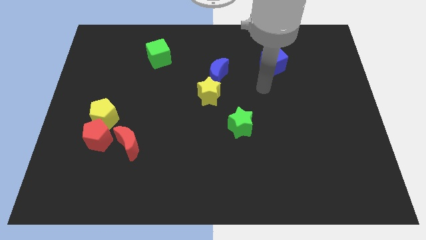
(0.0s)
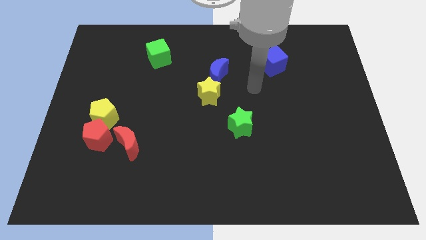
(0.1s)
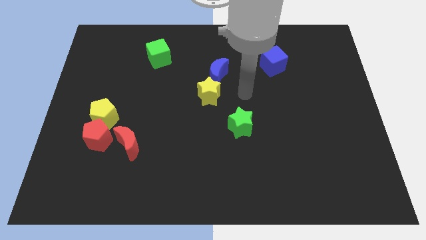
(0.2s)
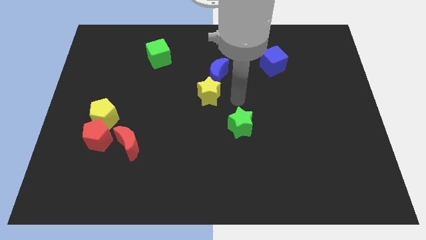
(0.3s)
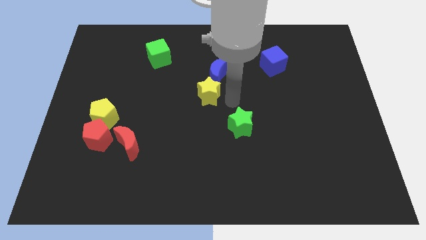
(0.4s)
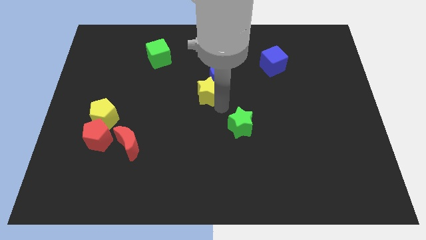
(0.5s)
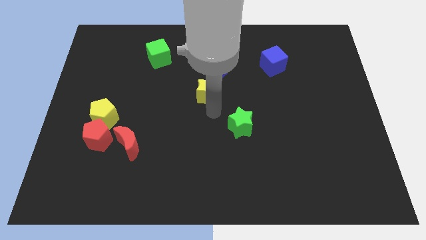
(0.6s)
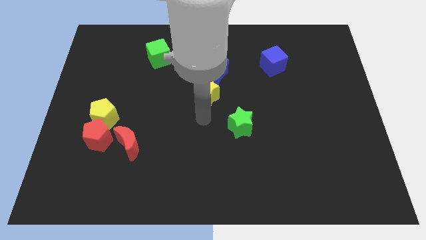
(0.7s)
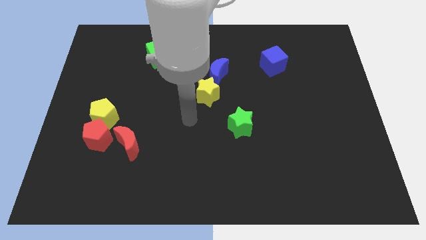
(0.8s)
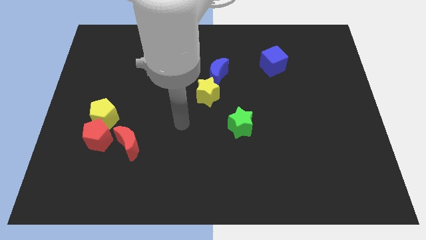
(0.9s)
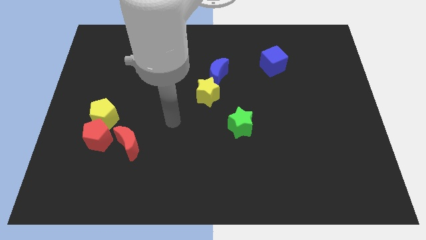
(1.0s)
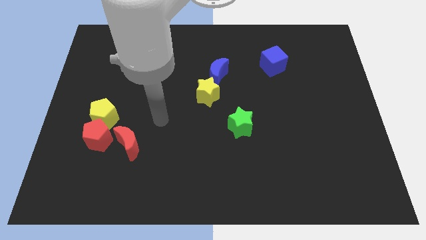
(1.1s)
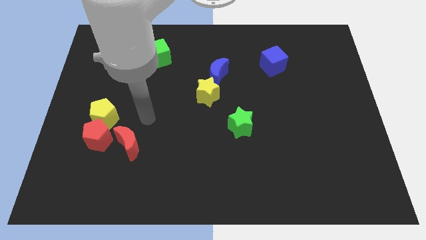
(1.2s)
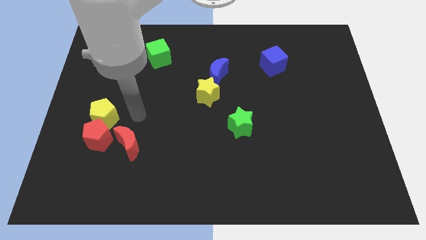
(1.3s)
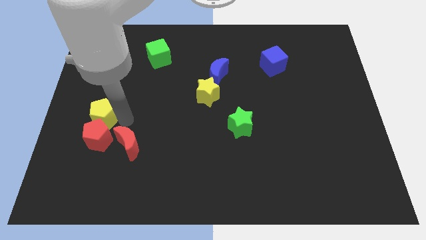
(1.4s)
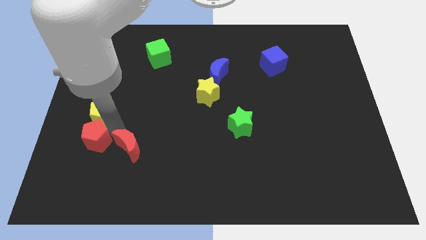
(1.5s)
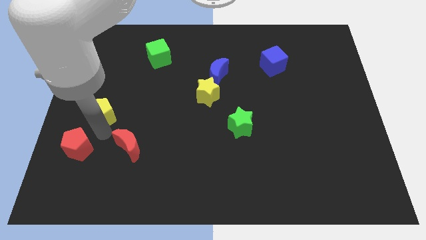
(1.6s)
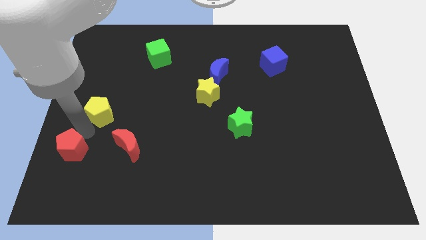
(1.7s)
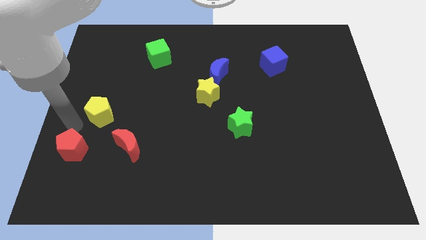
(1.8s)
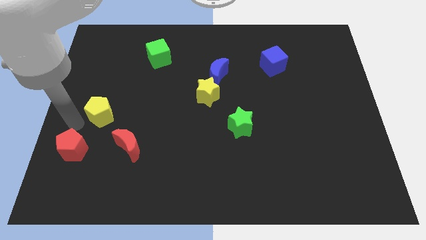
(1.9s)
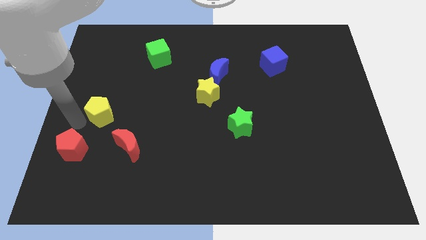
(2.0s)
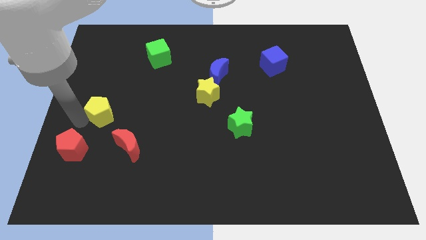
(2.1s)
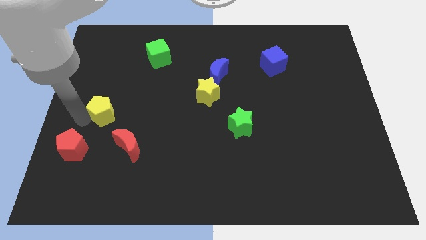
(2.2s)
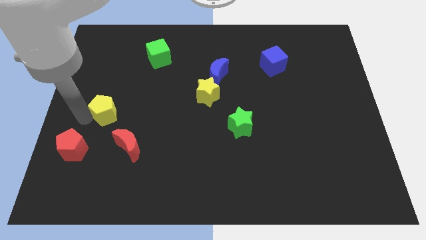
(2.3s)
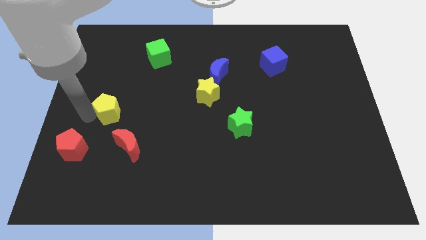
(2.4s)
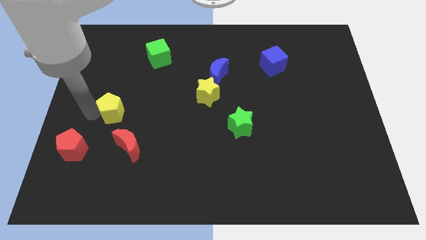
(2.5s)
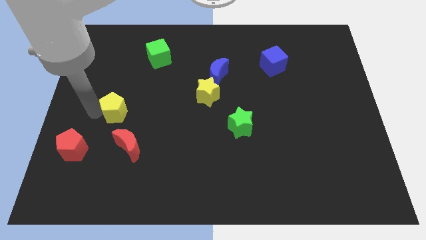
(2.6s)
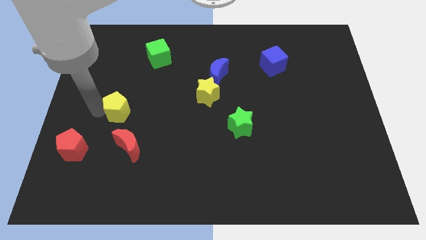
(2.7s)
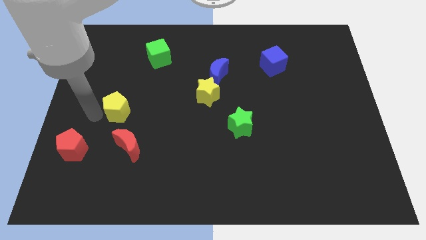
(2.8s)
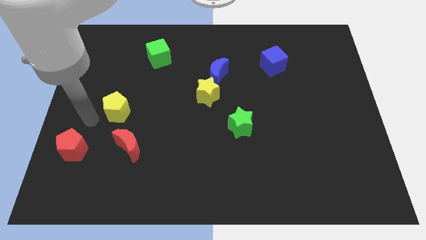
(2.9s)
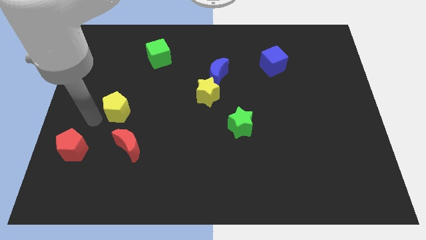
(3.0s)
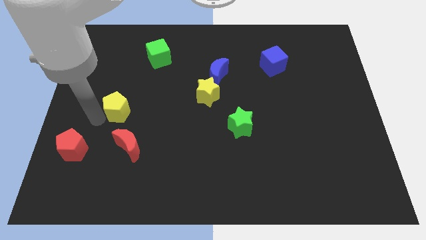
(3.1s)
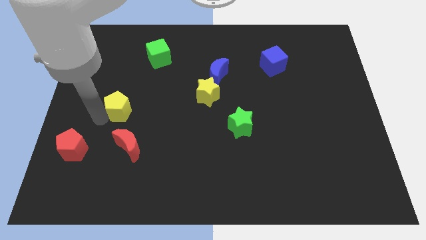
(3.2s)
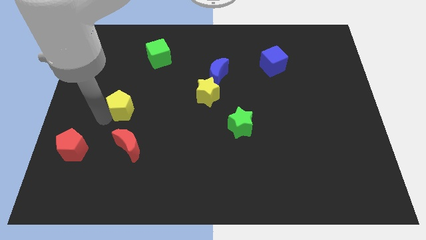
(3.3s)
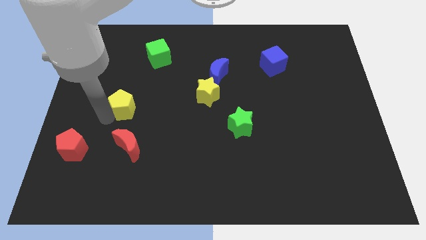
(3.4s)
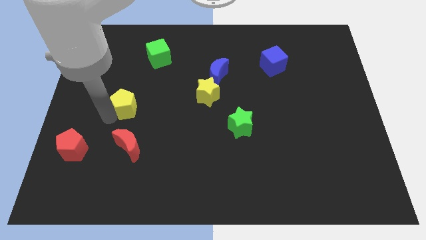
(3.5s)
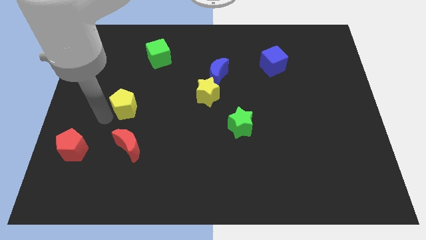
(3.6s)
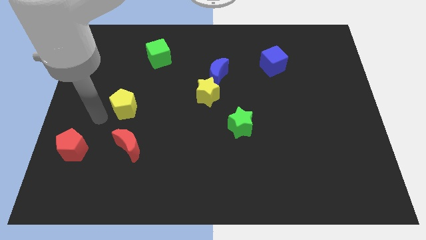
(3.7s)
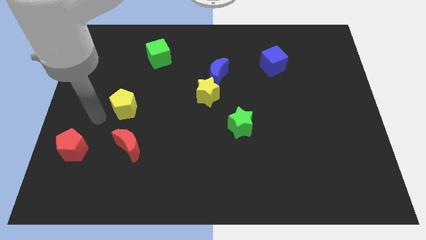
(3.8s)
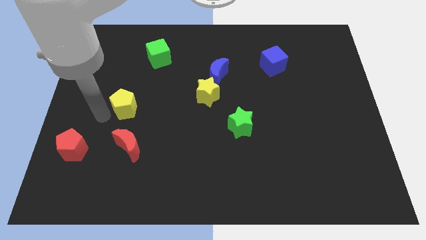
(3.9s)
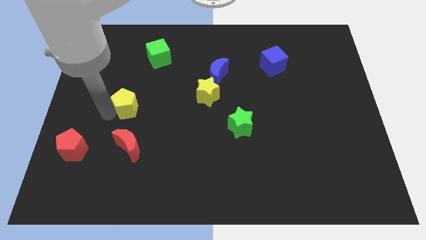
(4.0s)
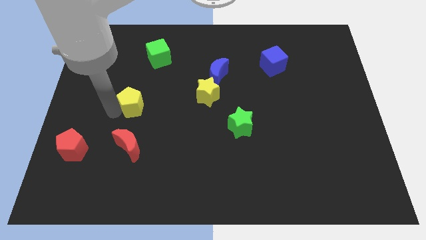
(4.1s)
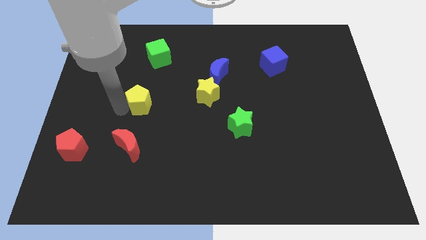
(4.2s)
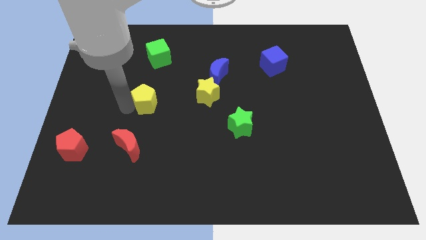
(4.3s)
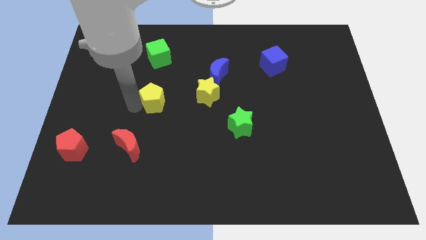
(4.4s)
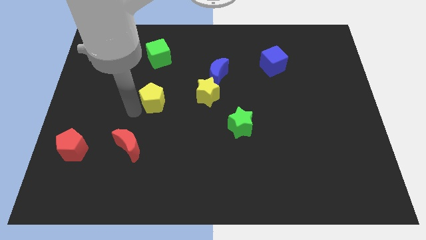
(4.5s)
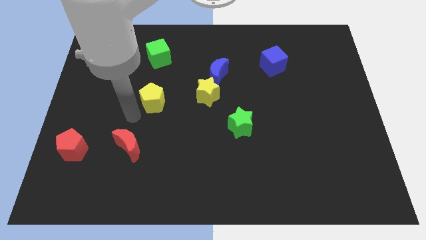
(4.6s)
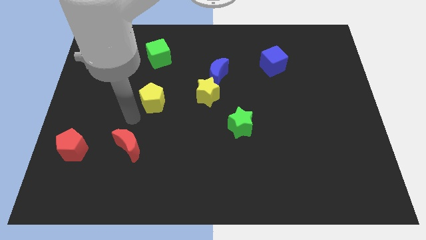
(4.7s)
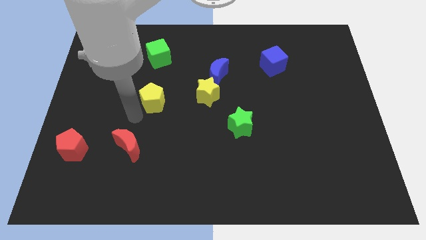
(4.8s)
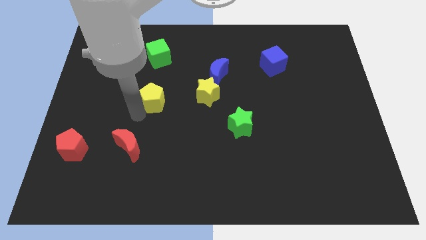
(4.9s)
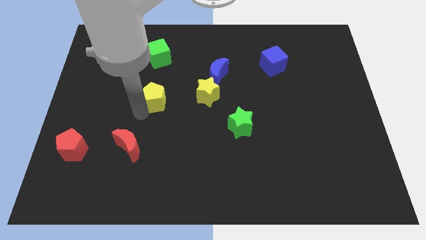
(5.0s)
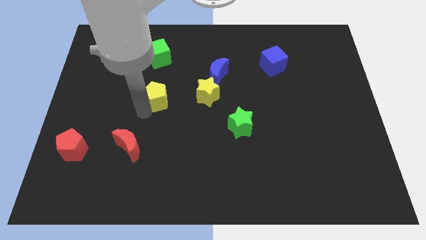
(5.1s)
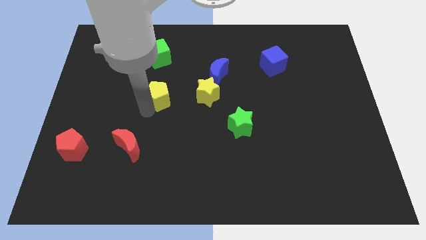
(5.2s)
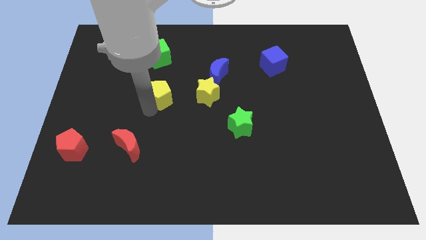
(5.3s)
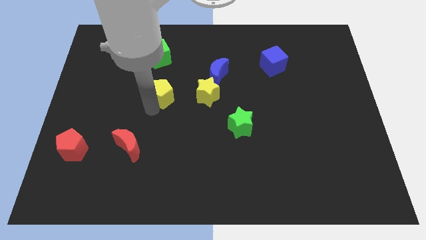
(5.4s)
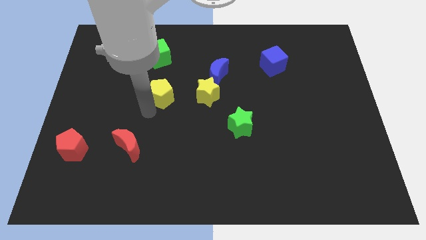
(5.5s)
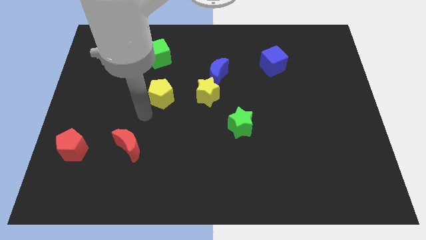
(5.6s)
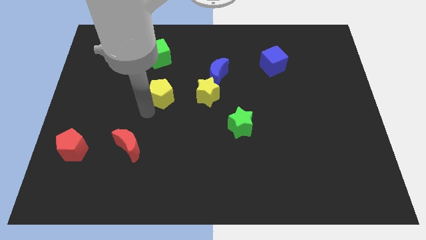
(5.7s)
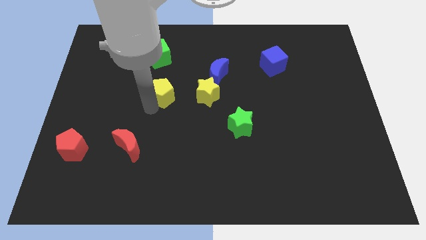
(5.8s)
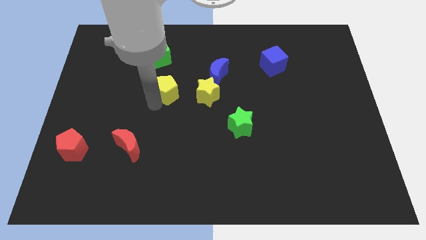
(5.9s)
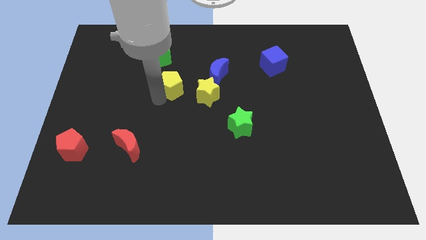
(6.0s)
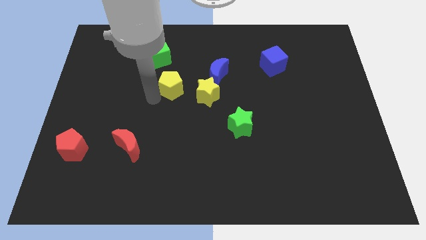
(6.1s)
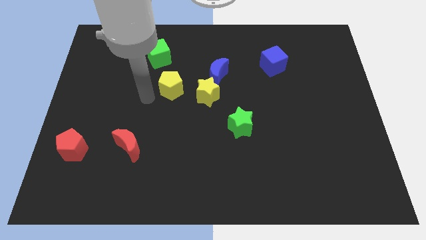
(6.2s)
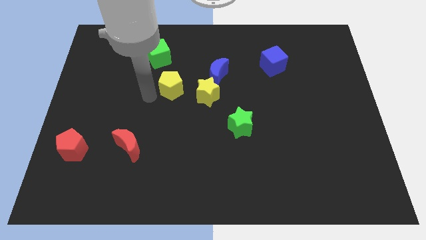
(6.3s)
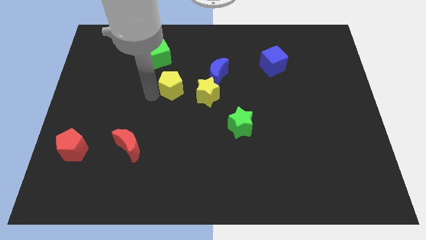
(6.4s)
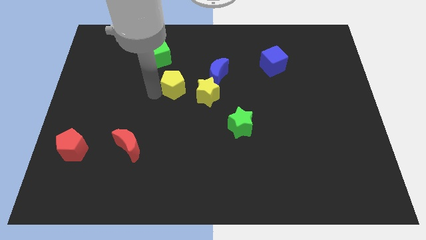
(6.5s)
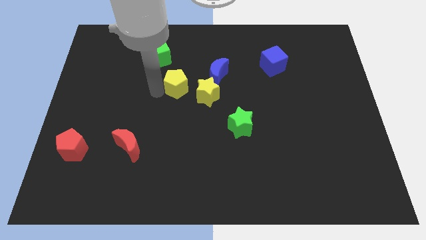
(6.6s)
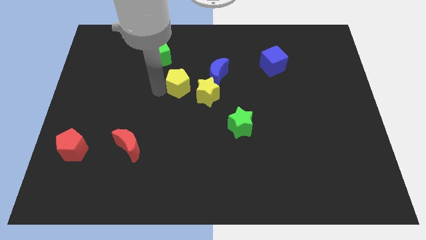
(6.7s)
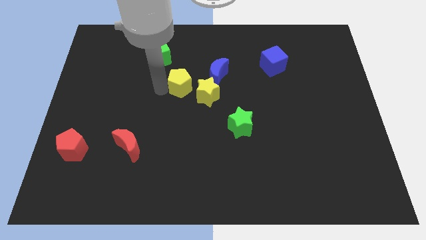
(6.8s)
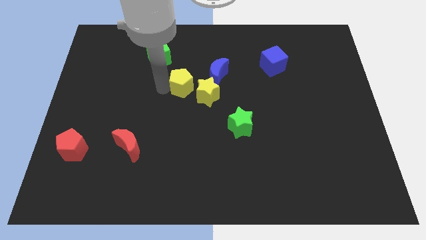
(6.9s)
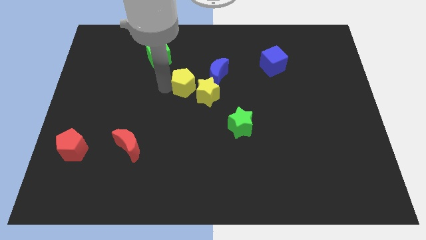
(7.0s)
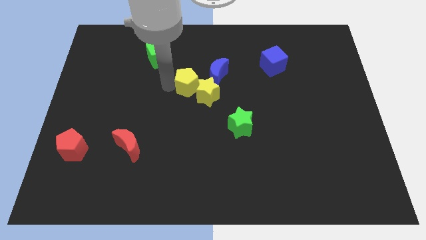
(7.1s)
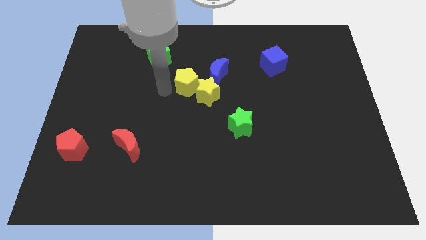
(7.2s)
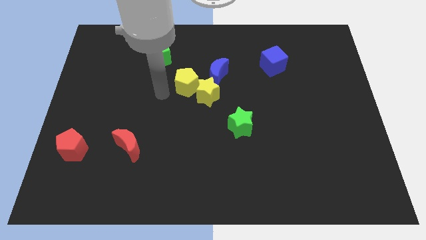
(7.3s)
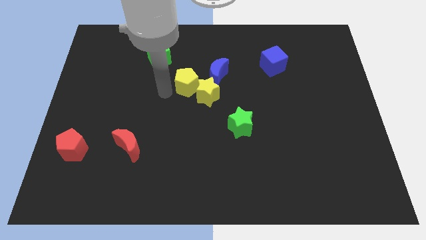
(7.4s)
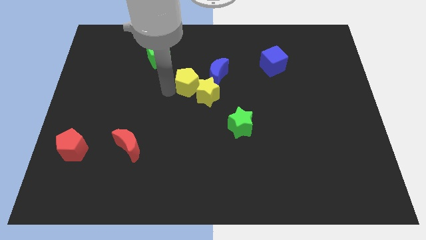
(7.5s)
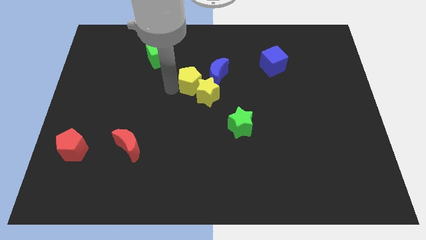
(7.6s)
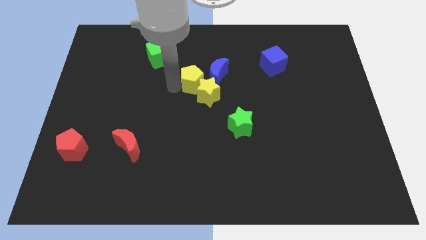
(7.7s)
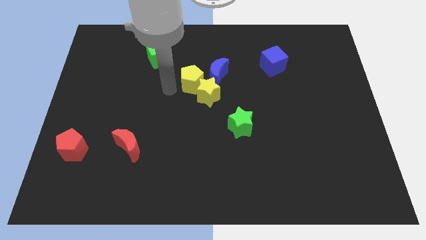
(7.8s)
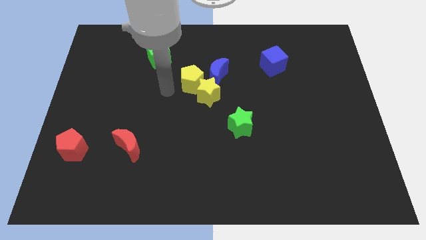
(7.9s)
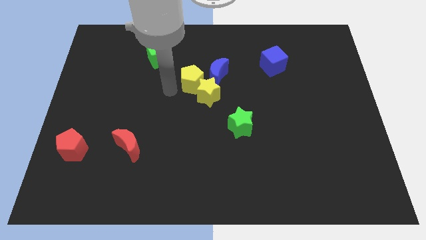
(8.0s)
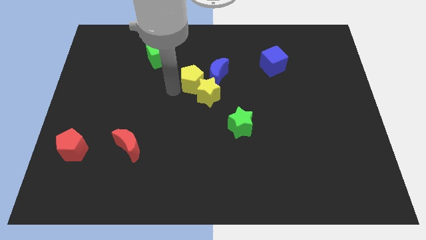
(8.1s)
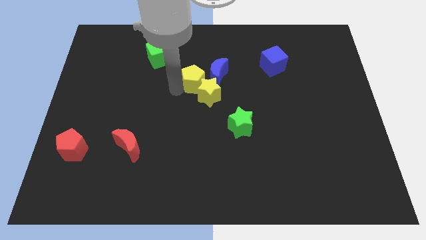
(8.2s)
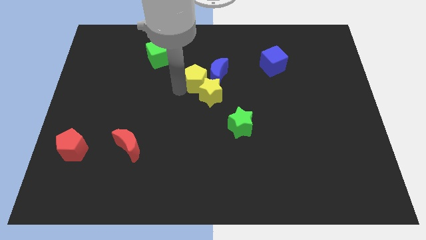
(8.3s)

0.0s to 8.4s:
move the yellow pentagon to the blue moon
